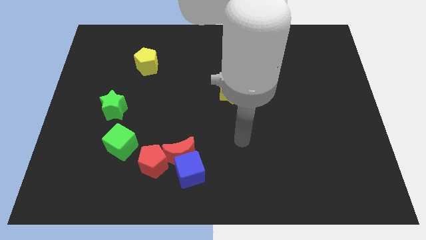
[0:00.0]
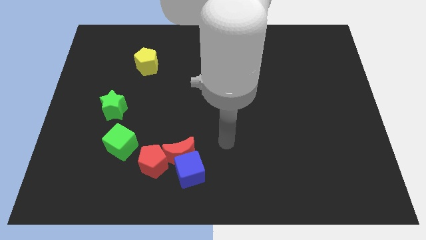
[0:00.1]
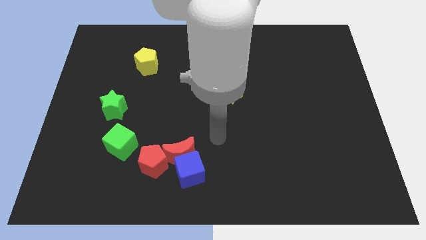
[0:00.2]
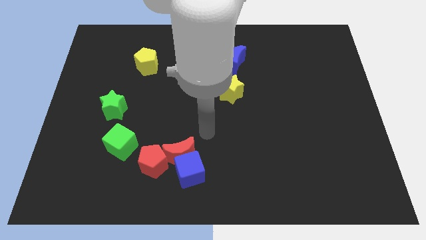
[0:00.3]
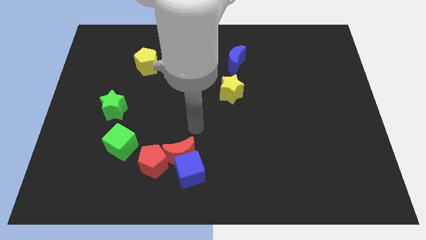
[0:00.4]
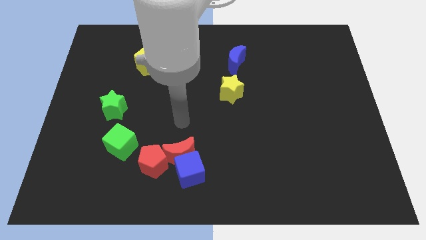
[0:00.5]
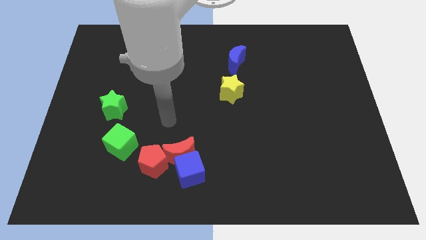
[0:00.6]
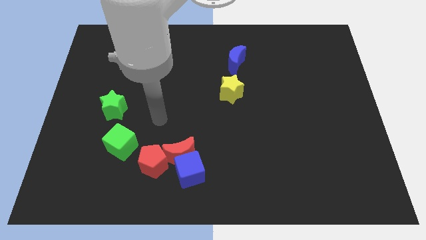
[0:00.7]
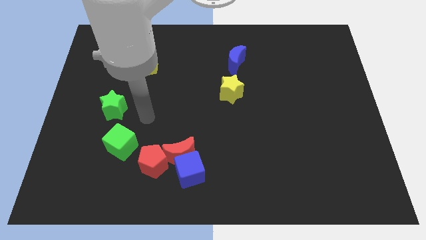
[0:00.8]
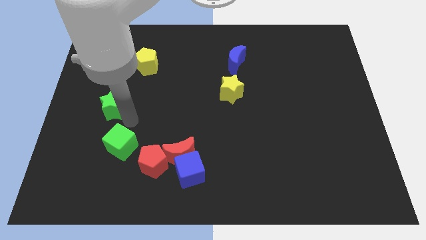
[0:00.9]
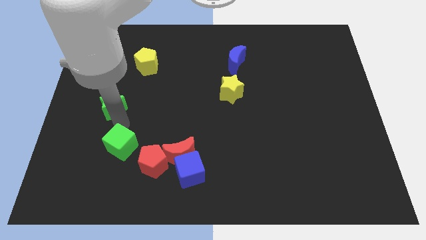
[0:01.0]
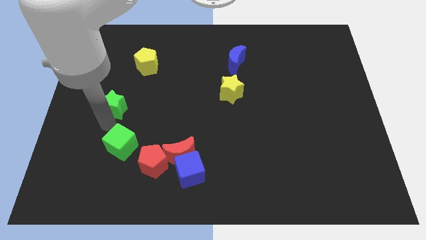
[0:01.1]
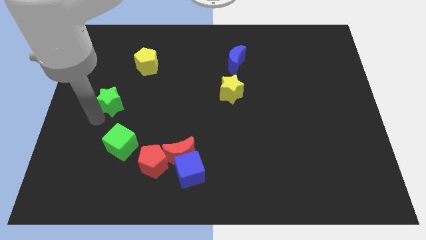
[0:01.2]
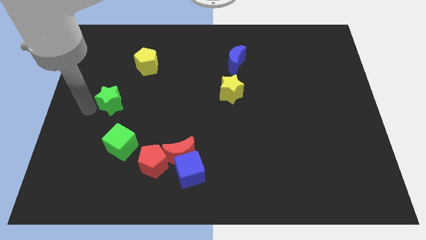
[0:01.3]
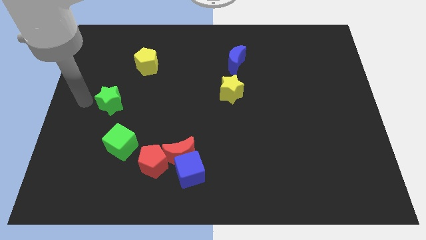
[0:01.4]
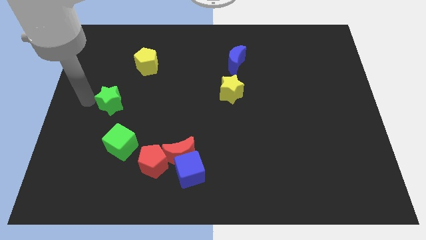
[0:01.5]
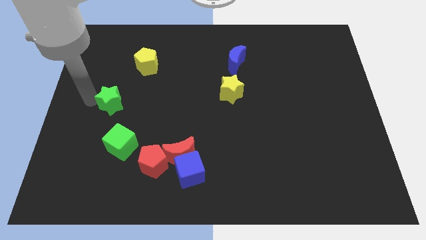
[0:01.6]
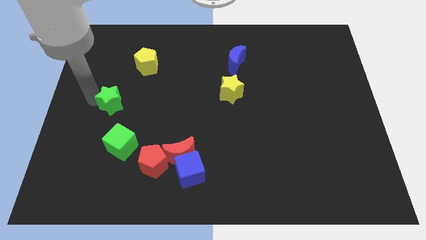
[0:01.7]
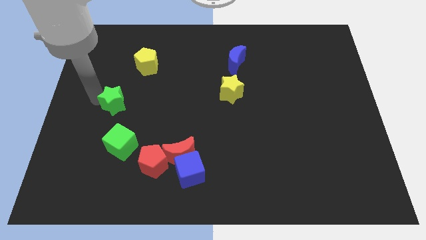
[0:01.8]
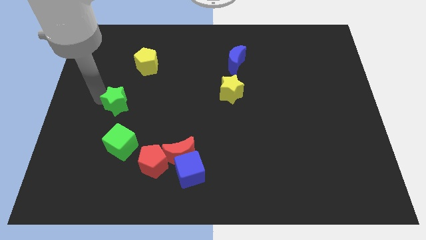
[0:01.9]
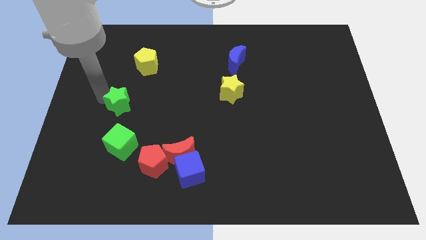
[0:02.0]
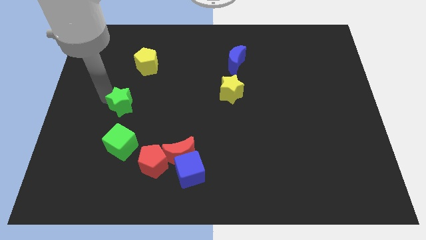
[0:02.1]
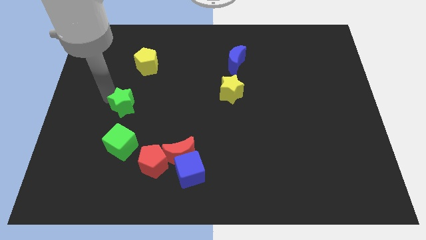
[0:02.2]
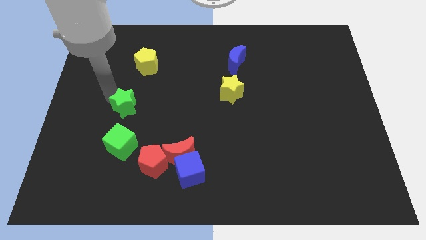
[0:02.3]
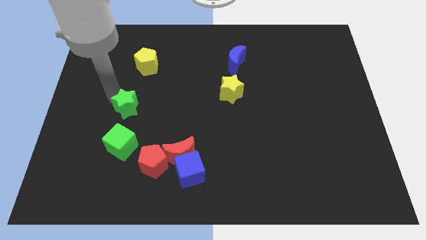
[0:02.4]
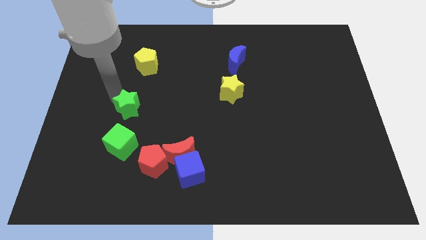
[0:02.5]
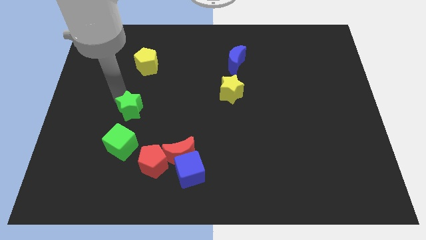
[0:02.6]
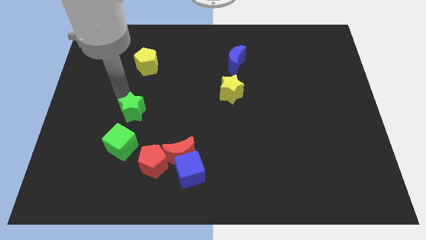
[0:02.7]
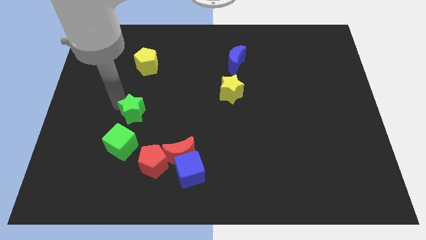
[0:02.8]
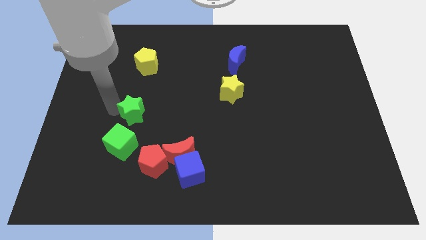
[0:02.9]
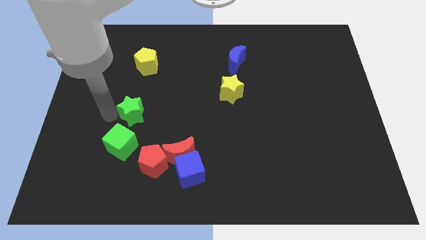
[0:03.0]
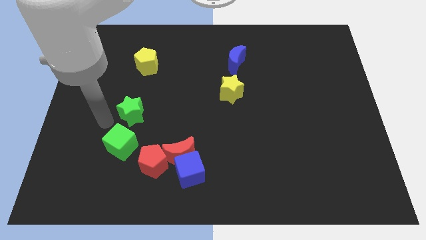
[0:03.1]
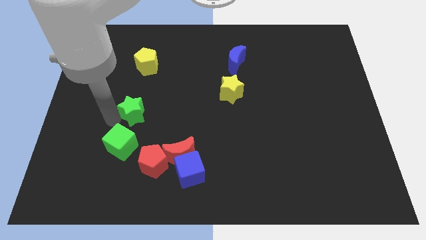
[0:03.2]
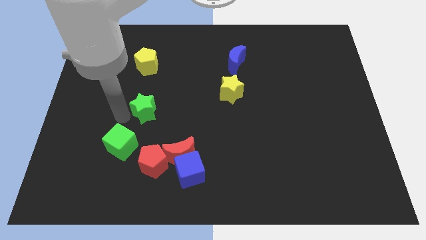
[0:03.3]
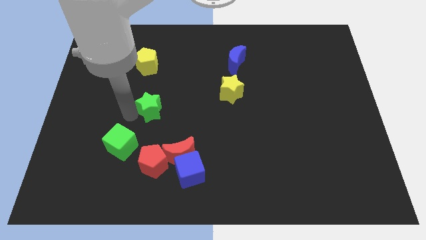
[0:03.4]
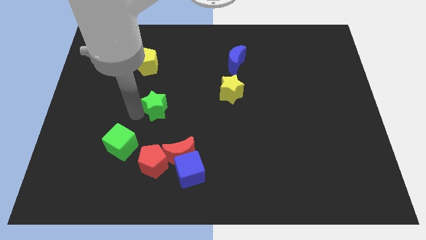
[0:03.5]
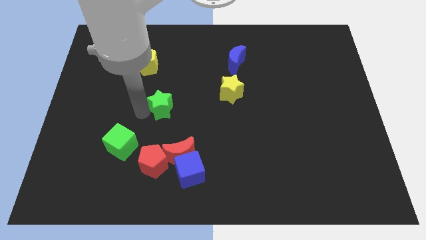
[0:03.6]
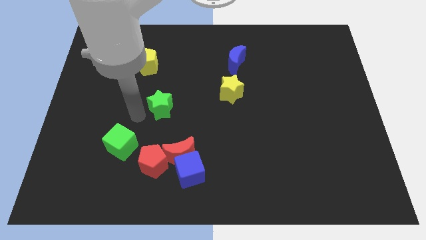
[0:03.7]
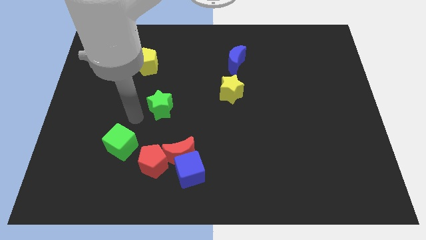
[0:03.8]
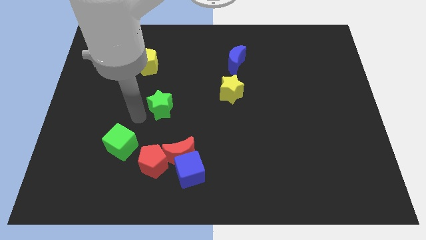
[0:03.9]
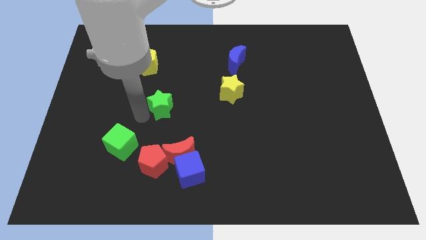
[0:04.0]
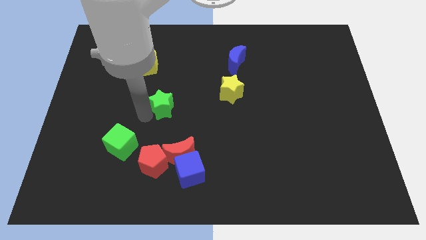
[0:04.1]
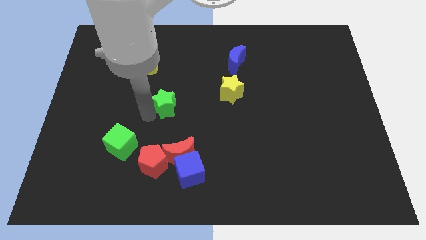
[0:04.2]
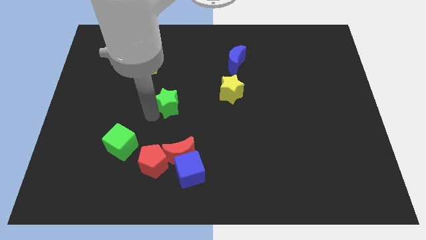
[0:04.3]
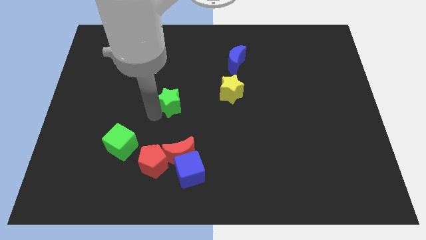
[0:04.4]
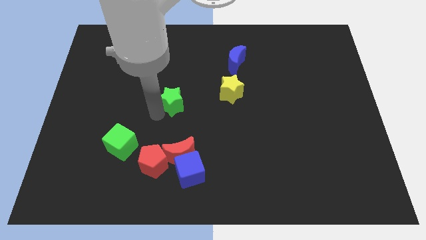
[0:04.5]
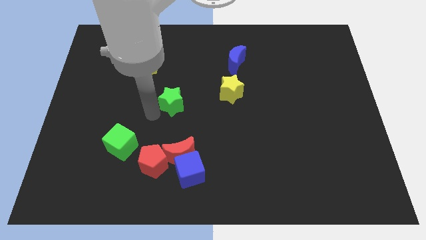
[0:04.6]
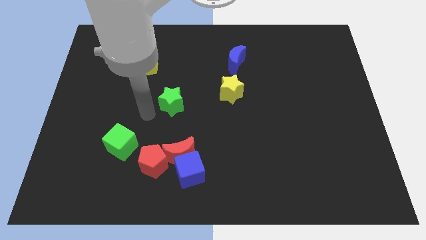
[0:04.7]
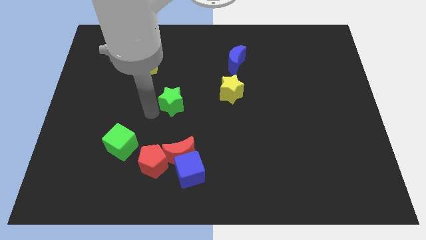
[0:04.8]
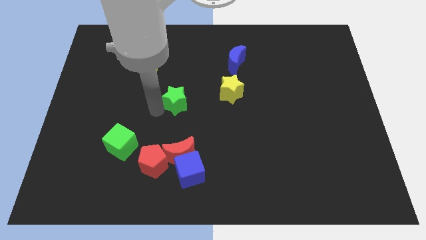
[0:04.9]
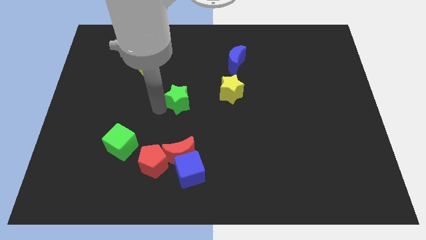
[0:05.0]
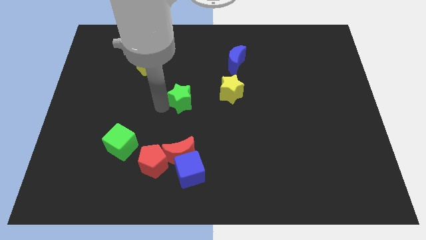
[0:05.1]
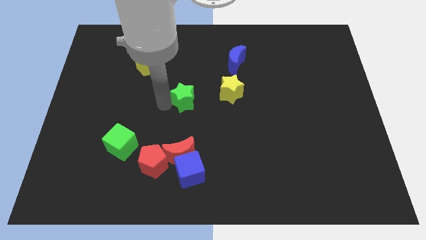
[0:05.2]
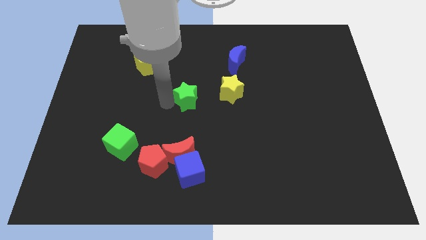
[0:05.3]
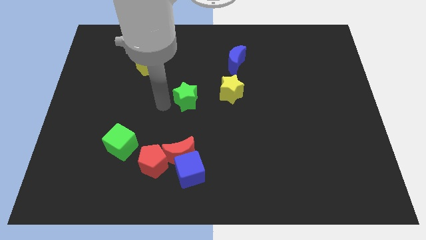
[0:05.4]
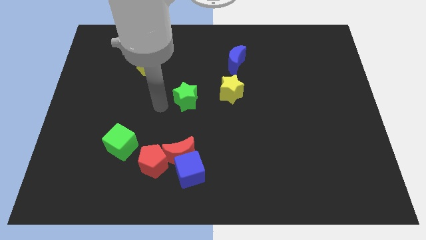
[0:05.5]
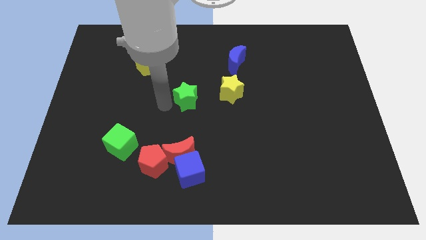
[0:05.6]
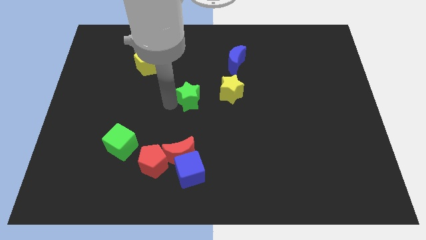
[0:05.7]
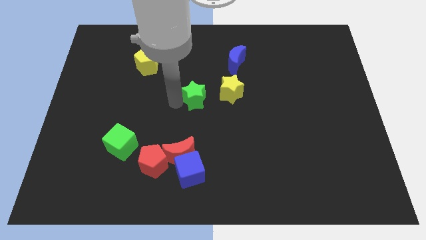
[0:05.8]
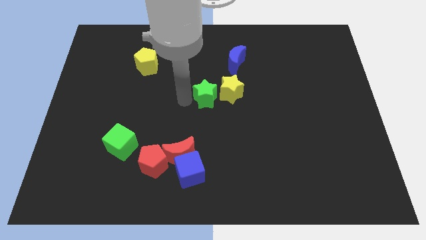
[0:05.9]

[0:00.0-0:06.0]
move the green star towards the yellow star

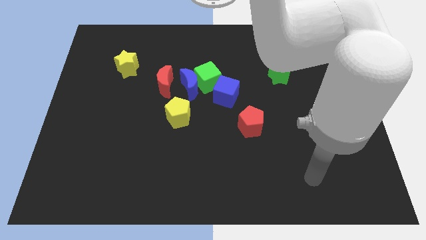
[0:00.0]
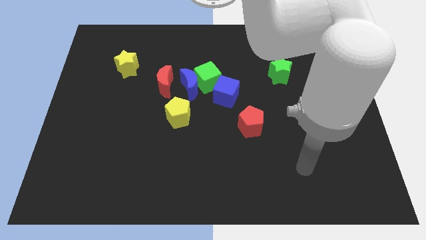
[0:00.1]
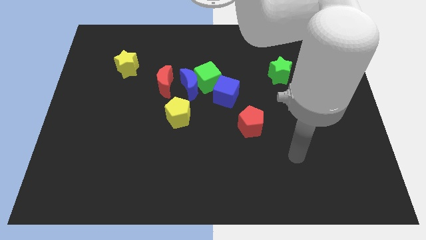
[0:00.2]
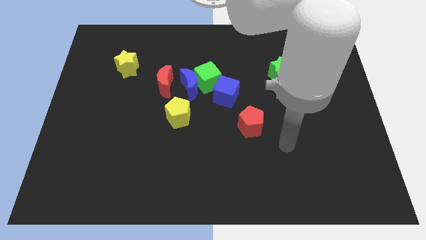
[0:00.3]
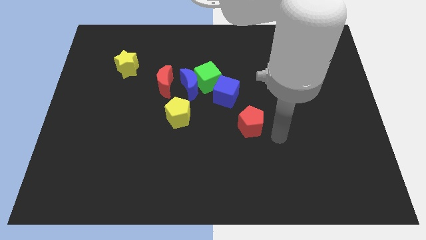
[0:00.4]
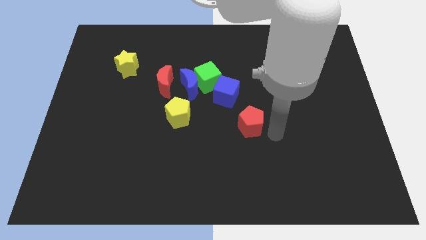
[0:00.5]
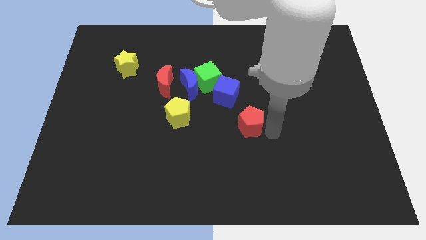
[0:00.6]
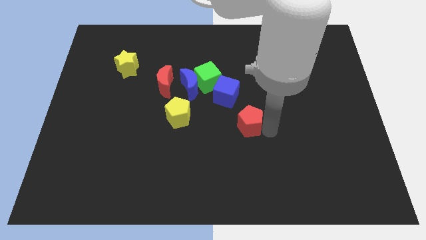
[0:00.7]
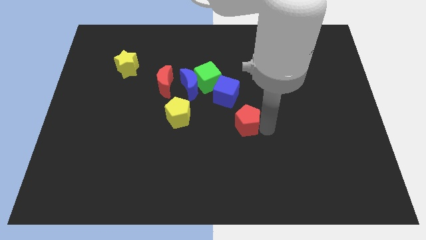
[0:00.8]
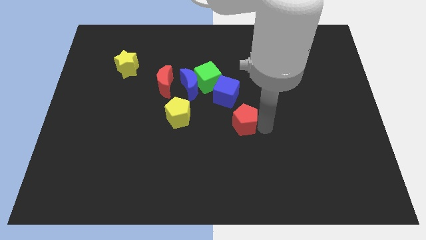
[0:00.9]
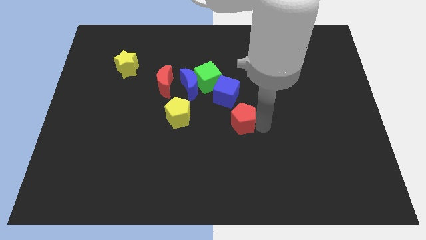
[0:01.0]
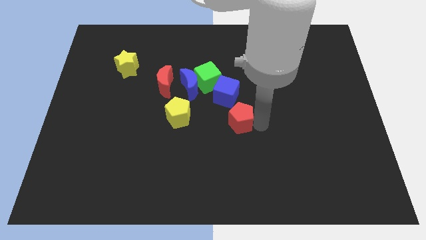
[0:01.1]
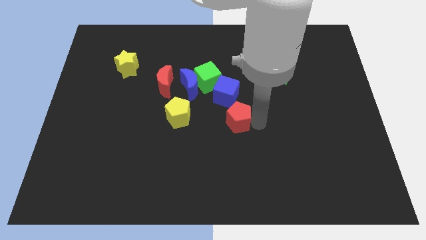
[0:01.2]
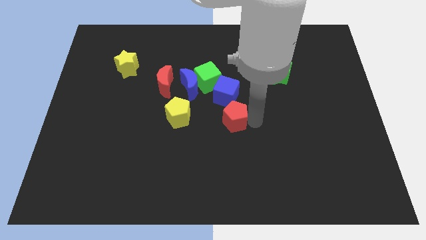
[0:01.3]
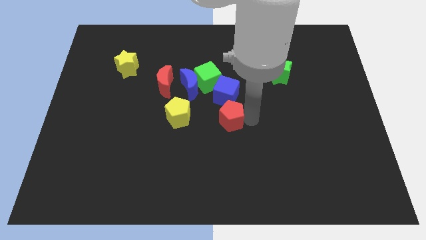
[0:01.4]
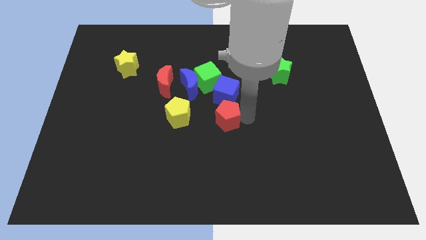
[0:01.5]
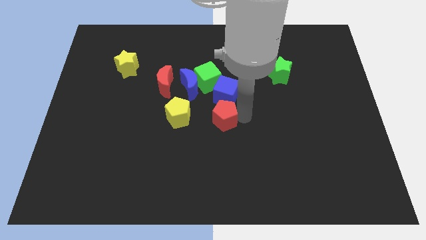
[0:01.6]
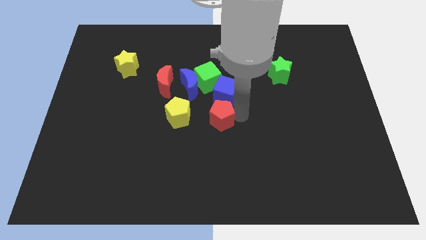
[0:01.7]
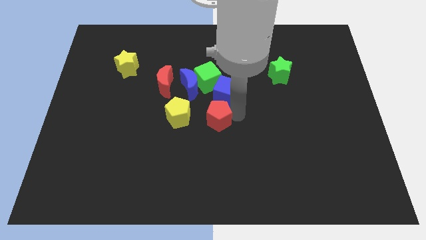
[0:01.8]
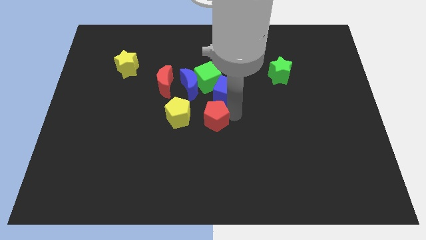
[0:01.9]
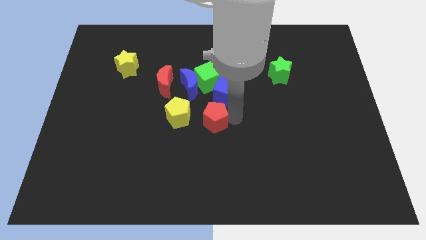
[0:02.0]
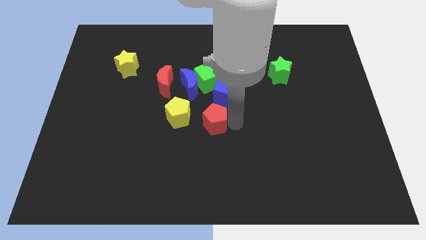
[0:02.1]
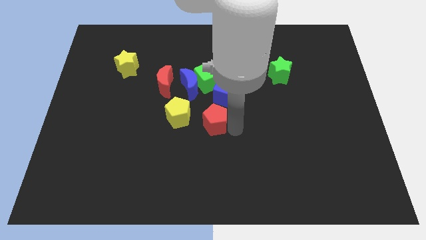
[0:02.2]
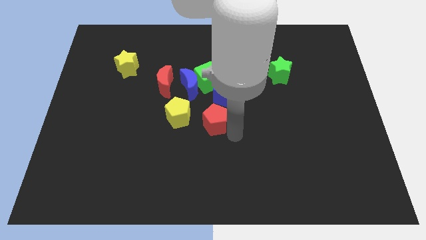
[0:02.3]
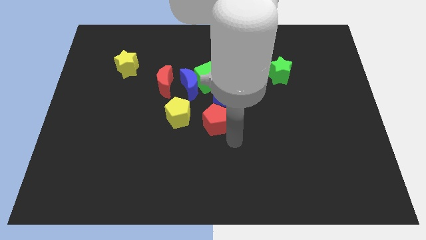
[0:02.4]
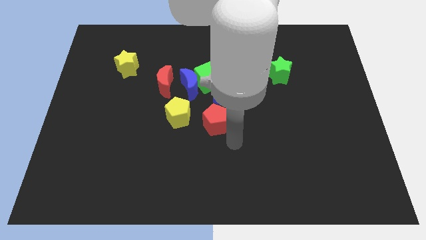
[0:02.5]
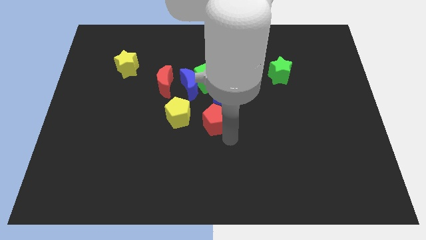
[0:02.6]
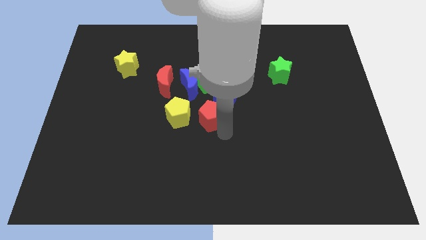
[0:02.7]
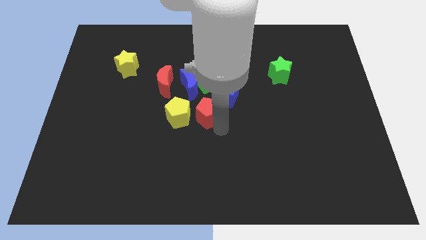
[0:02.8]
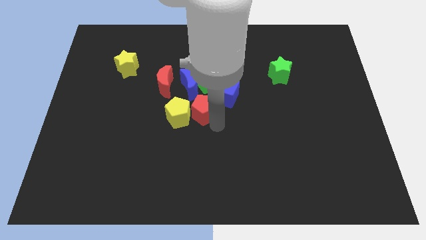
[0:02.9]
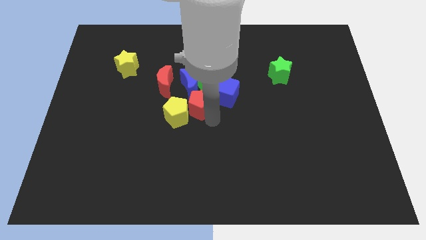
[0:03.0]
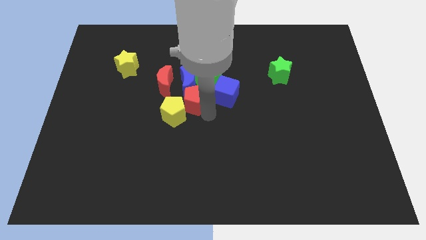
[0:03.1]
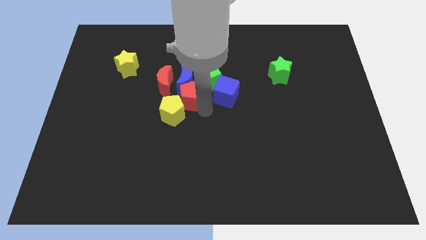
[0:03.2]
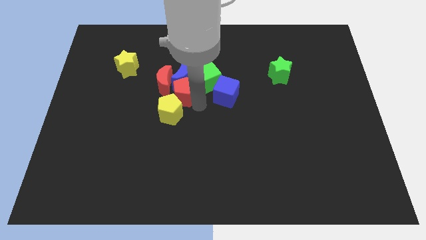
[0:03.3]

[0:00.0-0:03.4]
put the red pentagon close to the red moon
